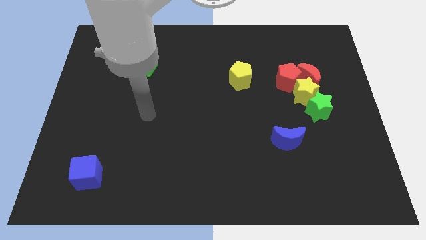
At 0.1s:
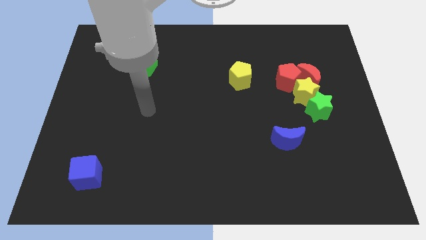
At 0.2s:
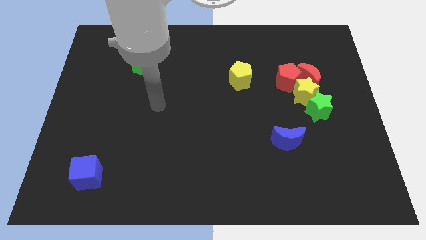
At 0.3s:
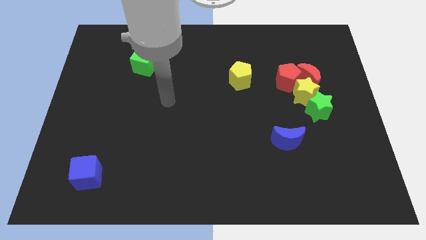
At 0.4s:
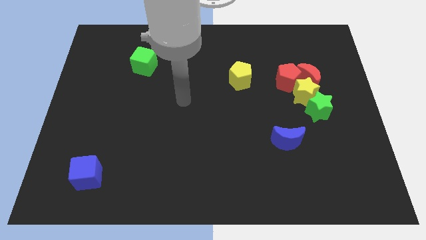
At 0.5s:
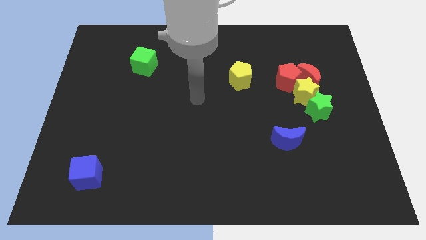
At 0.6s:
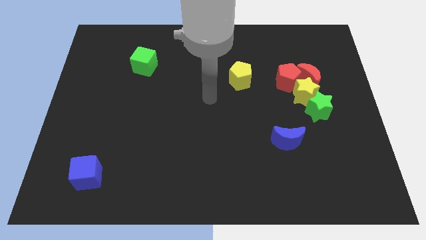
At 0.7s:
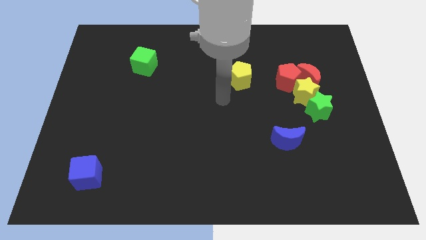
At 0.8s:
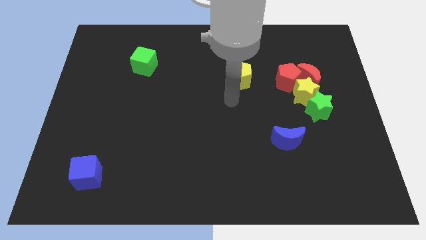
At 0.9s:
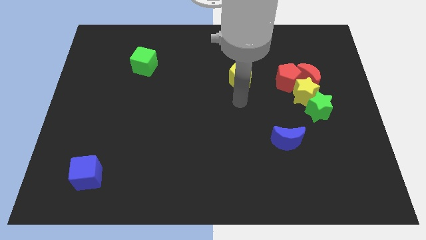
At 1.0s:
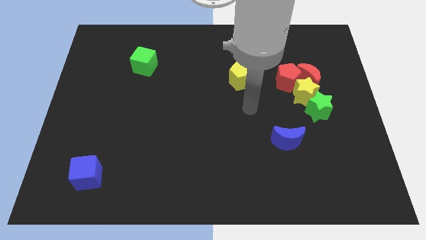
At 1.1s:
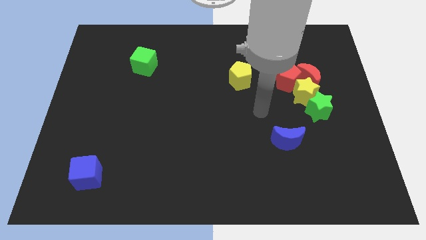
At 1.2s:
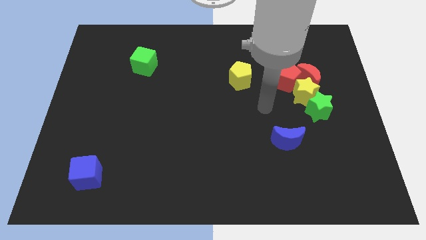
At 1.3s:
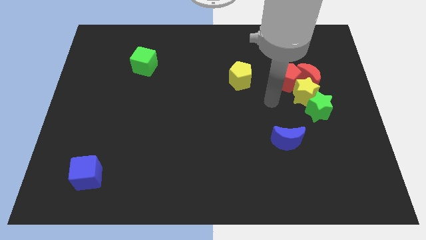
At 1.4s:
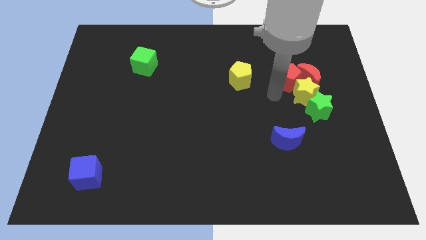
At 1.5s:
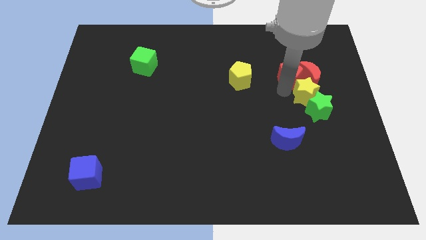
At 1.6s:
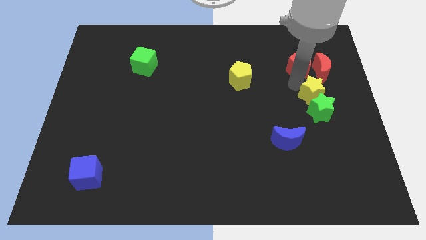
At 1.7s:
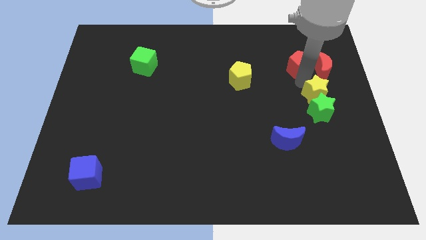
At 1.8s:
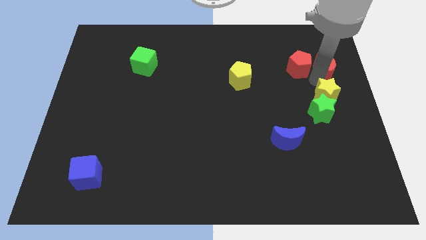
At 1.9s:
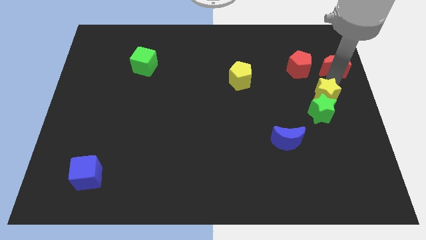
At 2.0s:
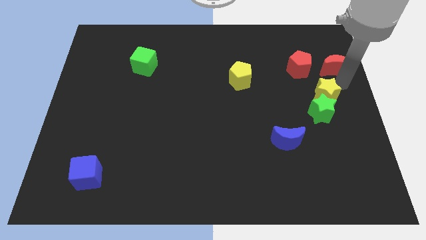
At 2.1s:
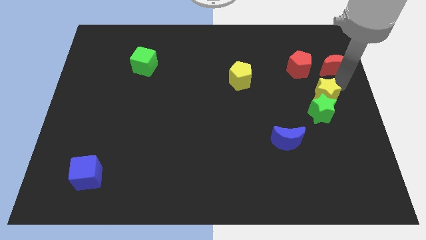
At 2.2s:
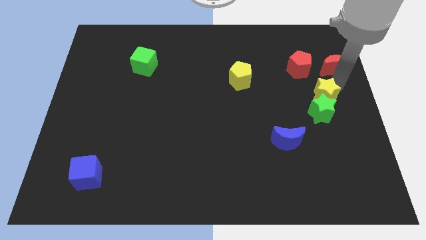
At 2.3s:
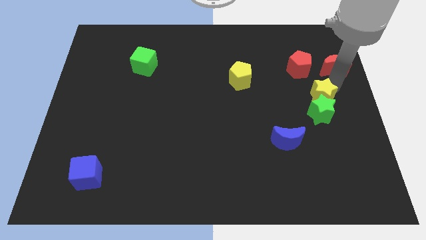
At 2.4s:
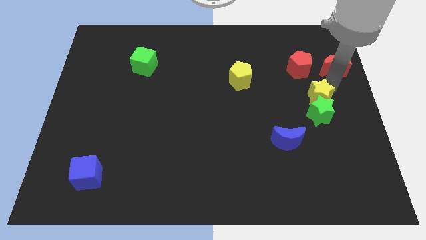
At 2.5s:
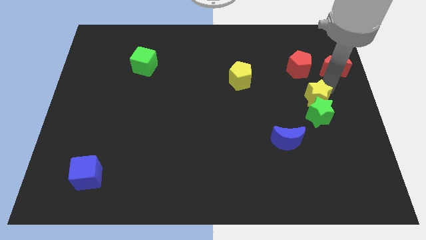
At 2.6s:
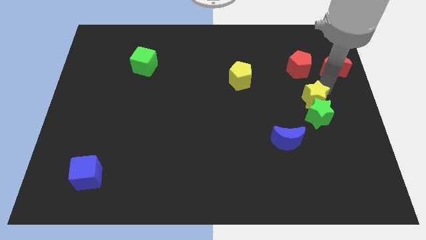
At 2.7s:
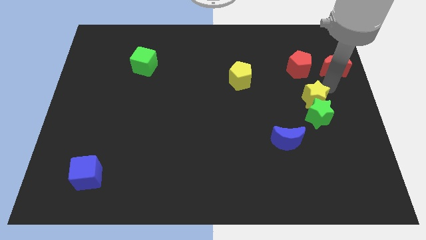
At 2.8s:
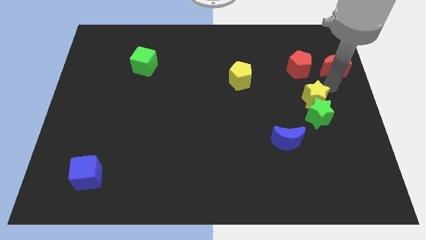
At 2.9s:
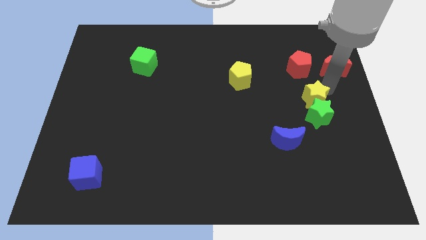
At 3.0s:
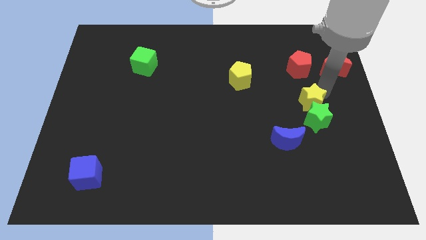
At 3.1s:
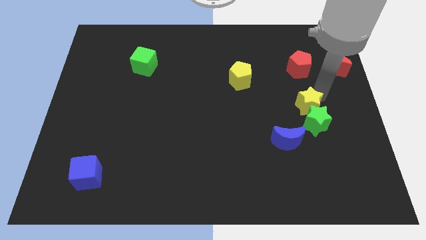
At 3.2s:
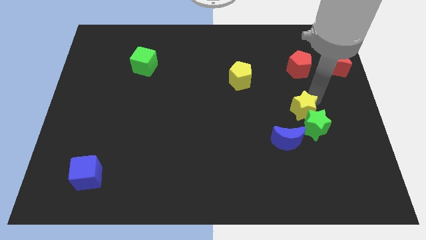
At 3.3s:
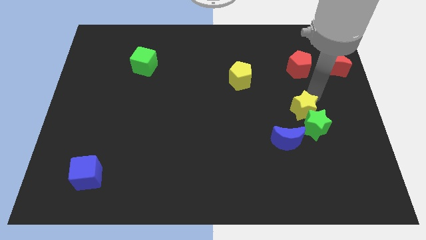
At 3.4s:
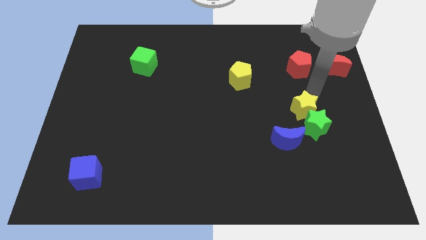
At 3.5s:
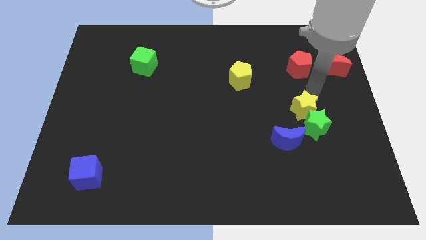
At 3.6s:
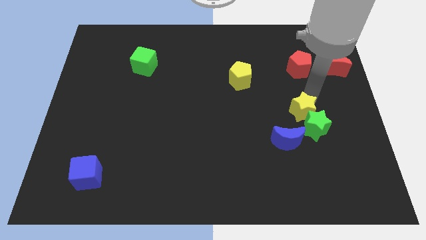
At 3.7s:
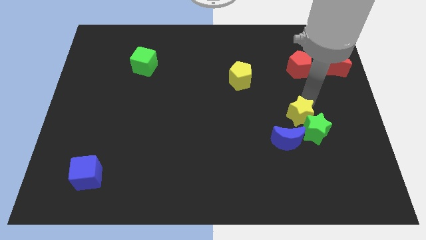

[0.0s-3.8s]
separate the yellow star from the group

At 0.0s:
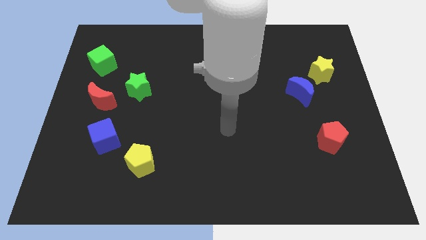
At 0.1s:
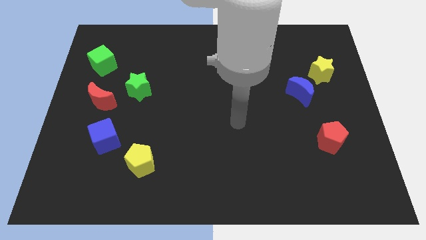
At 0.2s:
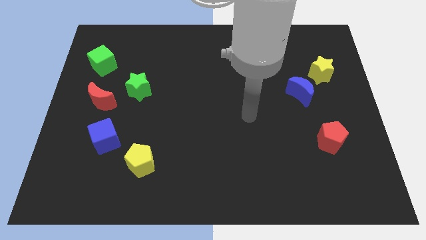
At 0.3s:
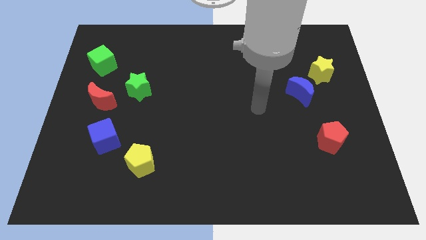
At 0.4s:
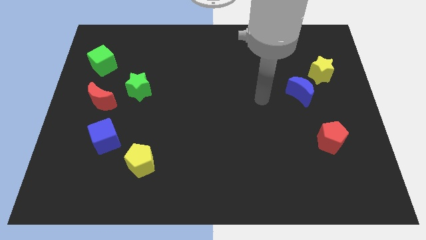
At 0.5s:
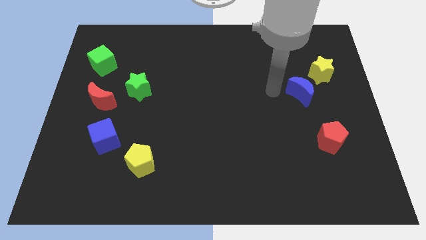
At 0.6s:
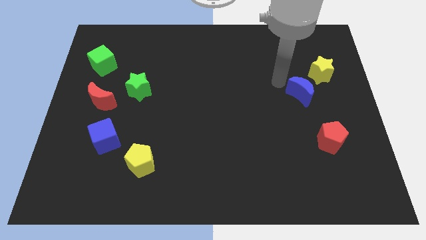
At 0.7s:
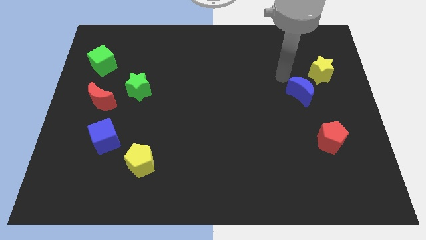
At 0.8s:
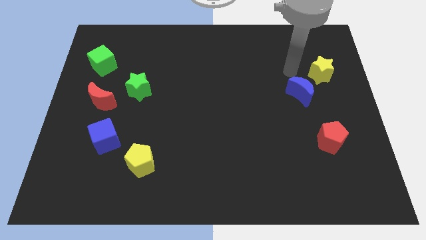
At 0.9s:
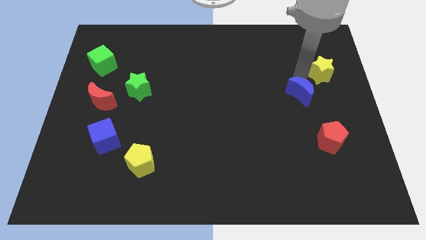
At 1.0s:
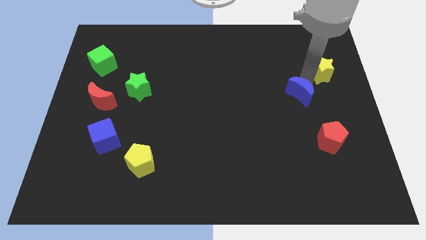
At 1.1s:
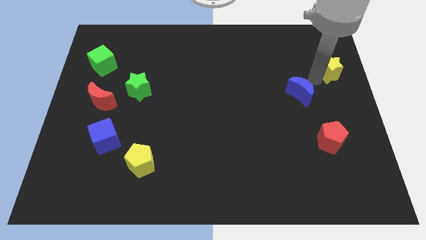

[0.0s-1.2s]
pull the blue moon apart from the yellow star

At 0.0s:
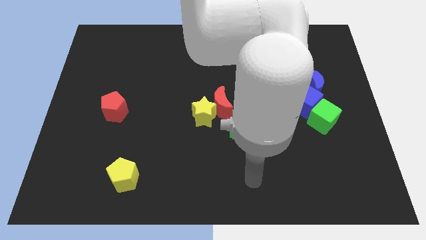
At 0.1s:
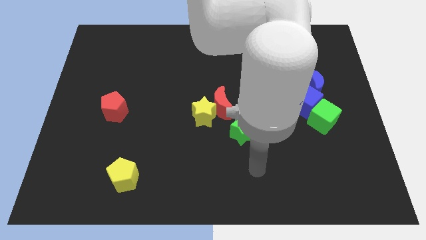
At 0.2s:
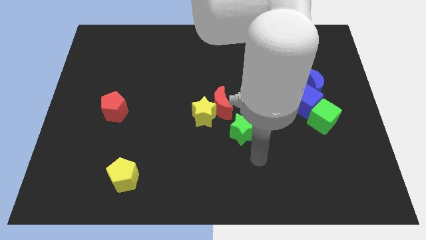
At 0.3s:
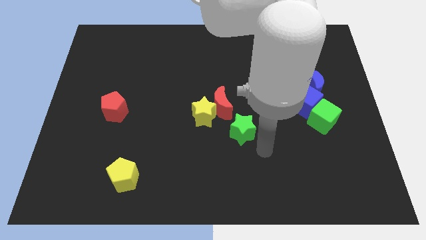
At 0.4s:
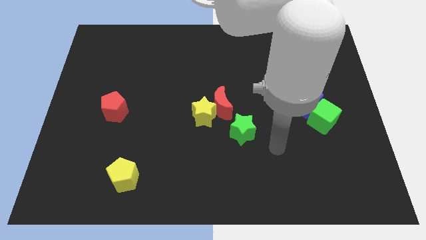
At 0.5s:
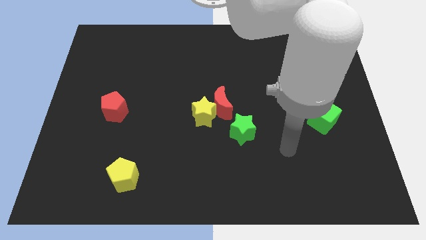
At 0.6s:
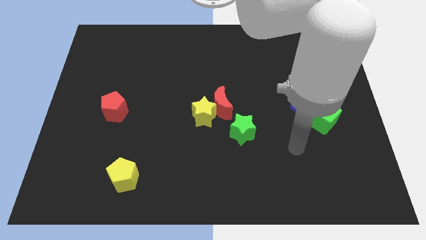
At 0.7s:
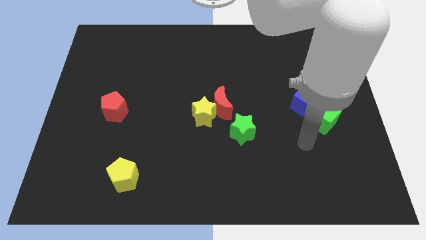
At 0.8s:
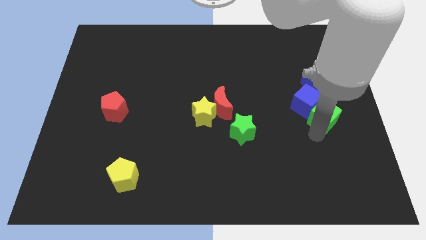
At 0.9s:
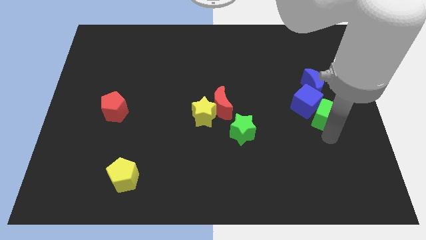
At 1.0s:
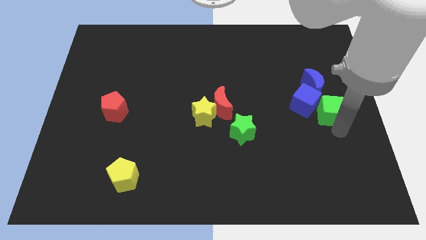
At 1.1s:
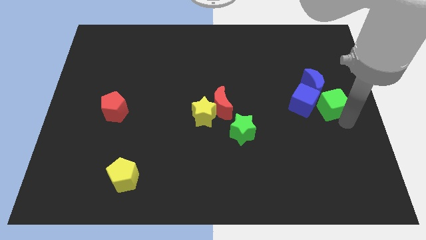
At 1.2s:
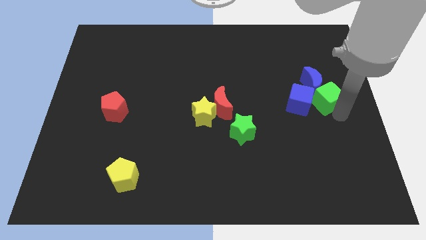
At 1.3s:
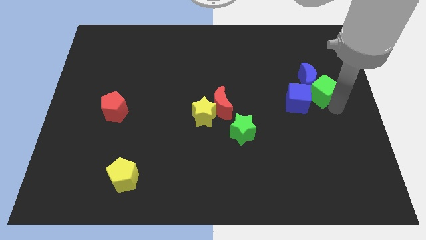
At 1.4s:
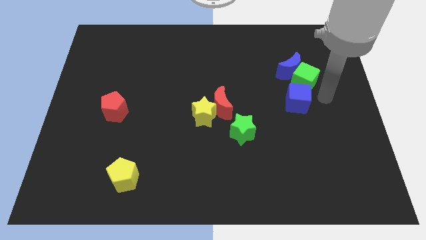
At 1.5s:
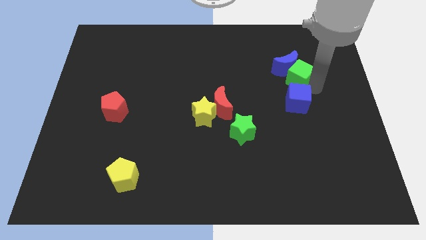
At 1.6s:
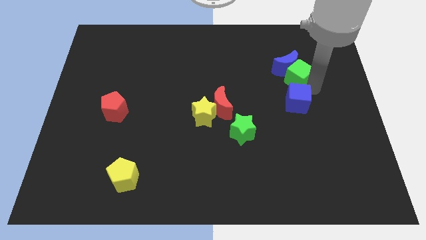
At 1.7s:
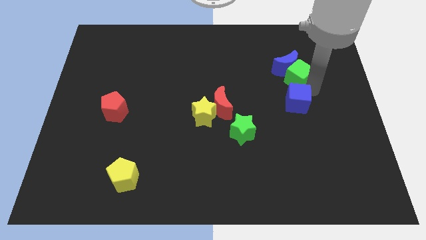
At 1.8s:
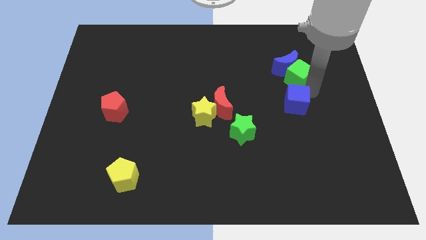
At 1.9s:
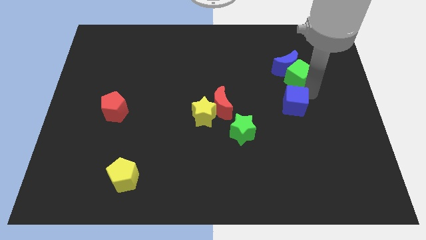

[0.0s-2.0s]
pull the blue cube apart from the green cube and blue moon

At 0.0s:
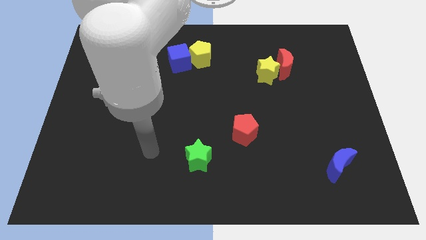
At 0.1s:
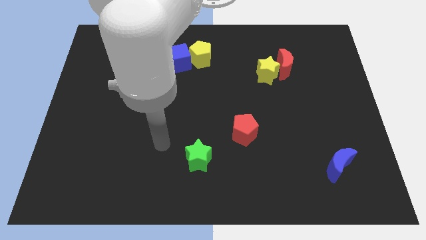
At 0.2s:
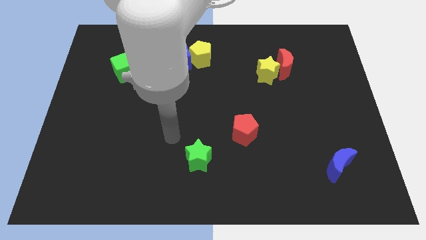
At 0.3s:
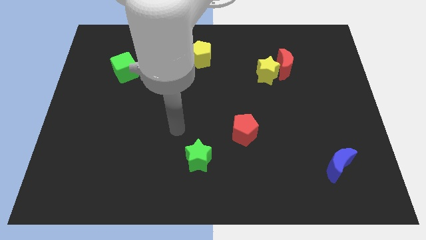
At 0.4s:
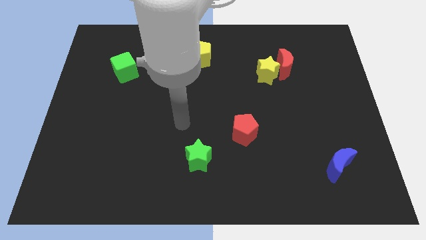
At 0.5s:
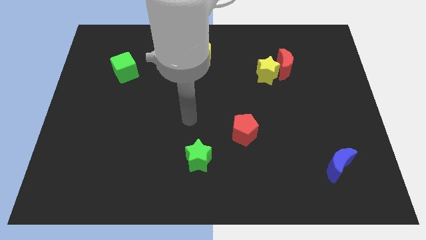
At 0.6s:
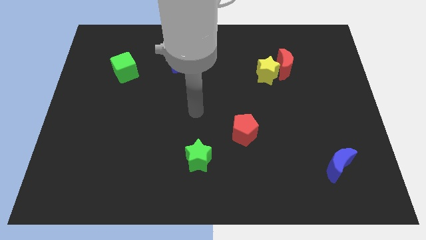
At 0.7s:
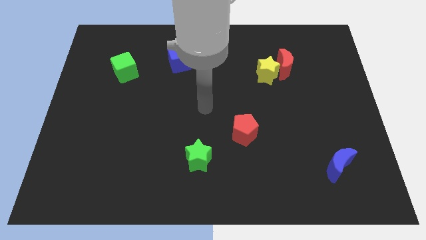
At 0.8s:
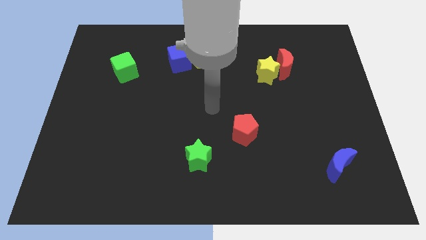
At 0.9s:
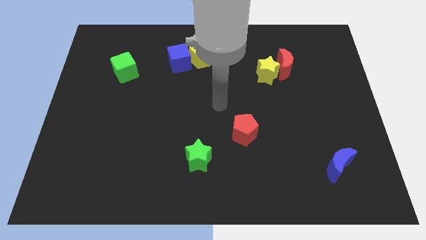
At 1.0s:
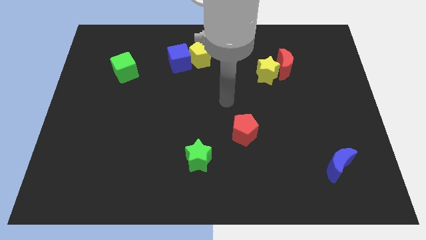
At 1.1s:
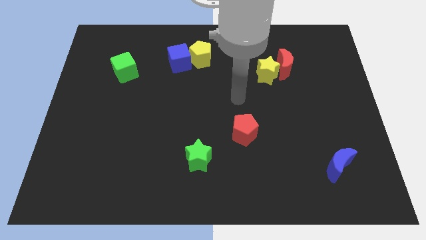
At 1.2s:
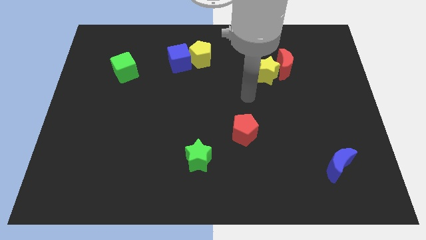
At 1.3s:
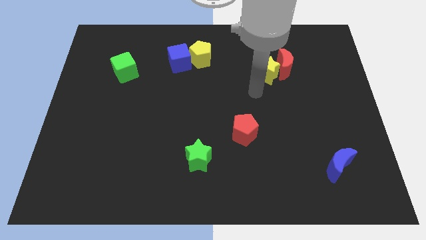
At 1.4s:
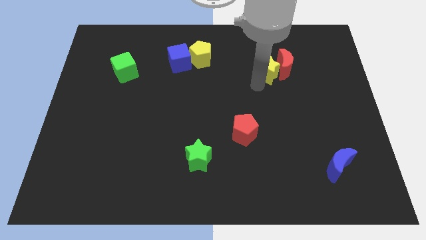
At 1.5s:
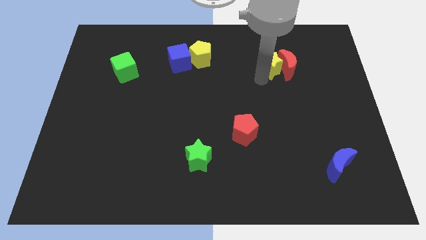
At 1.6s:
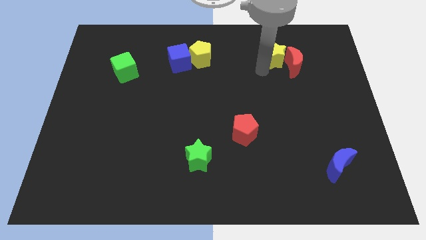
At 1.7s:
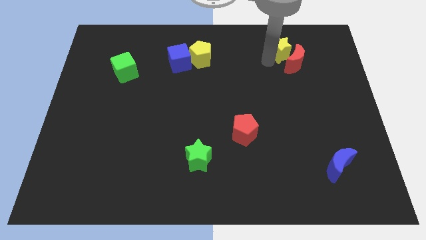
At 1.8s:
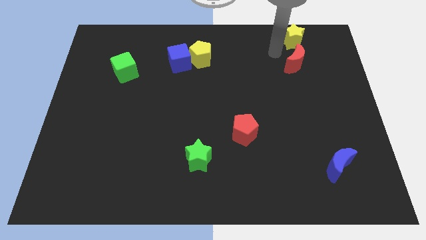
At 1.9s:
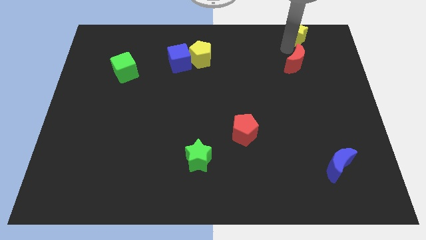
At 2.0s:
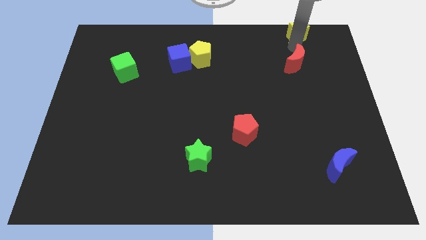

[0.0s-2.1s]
pull the red moon apart from the yellow star

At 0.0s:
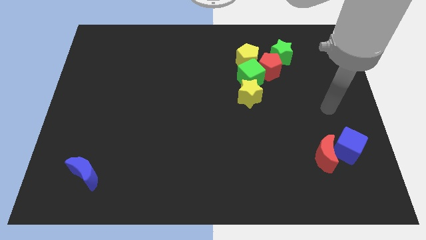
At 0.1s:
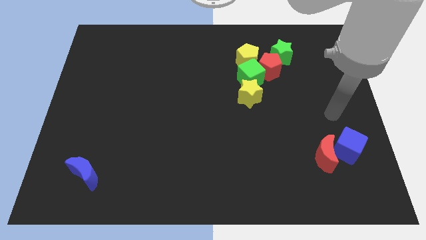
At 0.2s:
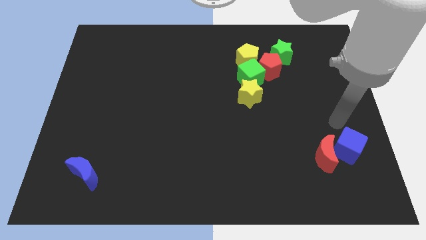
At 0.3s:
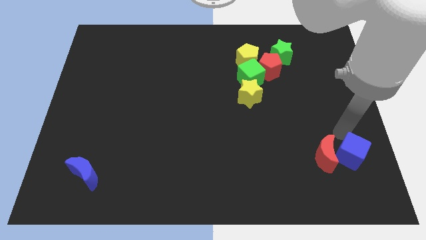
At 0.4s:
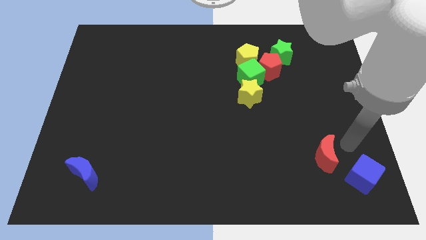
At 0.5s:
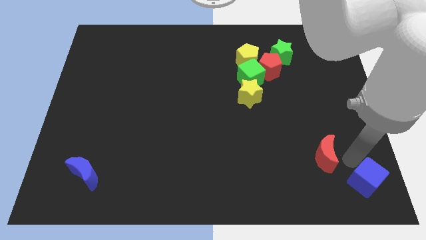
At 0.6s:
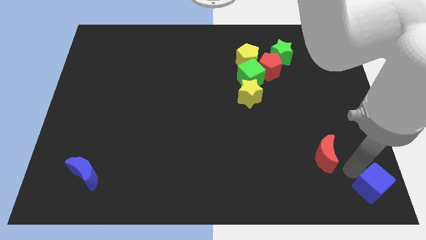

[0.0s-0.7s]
move the red moon away from the blue cube
